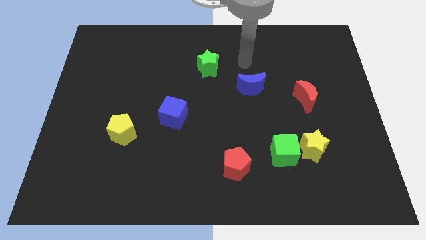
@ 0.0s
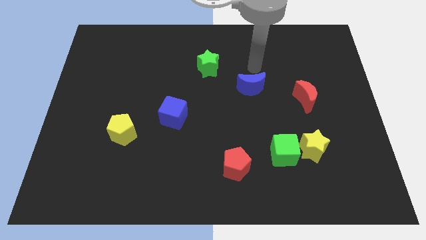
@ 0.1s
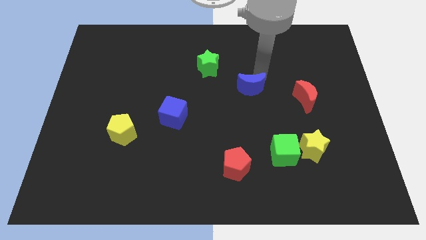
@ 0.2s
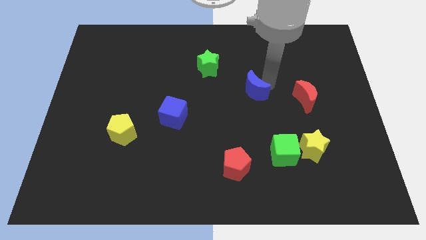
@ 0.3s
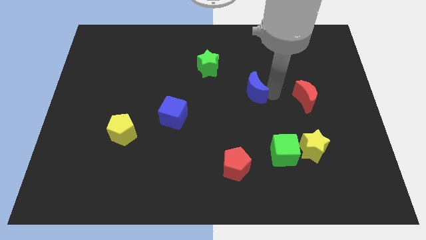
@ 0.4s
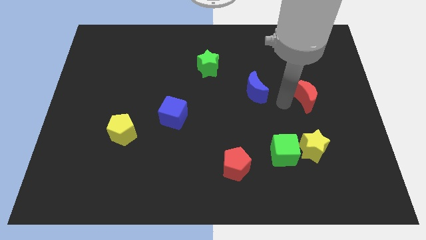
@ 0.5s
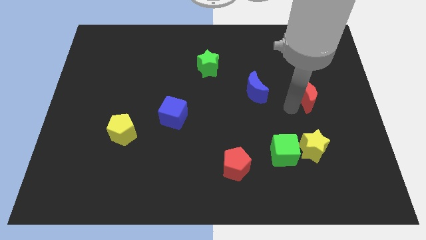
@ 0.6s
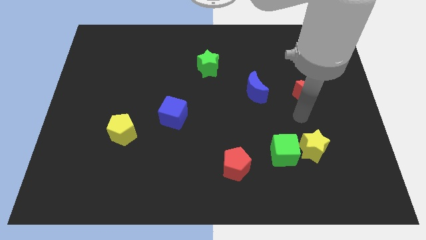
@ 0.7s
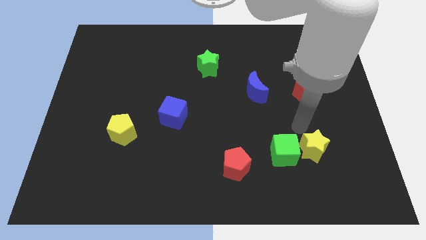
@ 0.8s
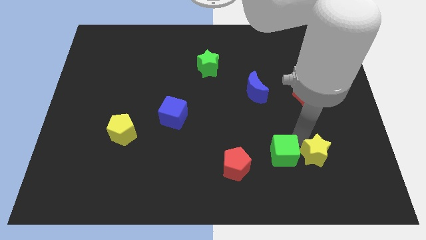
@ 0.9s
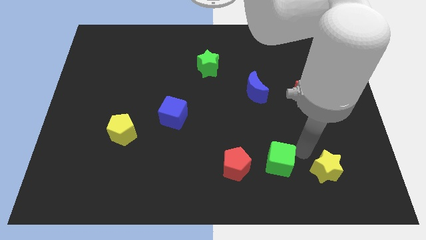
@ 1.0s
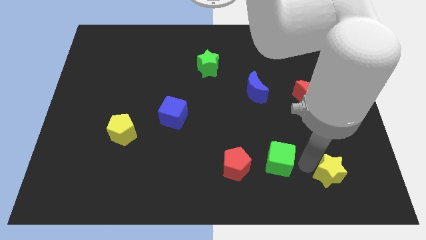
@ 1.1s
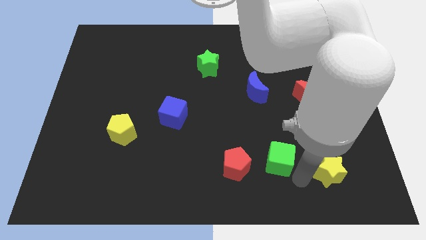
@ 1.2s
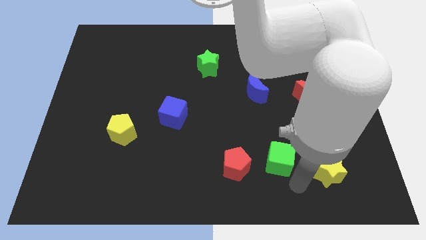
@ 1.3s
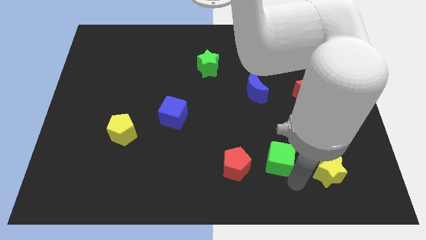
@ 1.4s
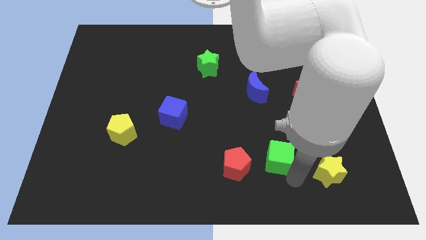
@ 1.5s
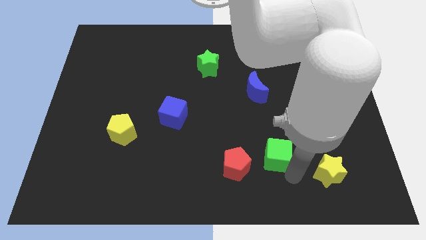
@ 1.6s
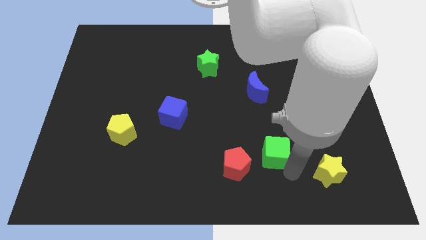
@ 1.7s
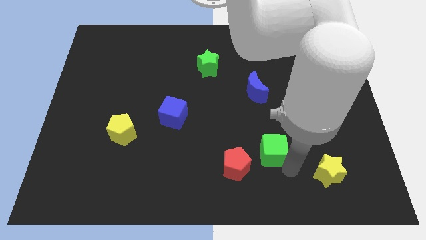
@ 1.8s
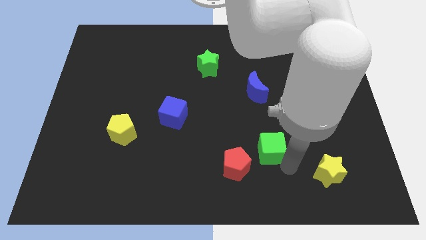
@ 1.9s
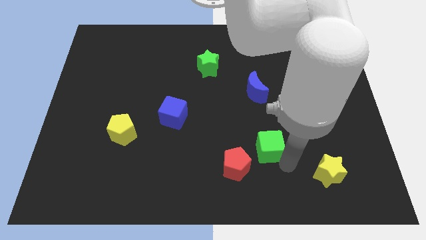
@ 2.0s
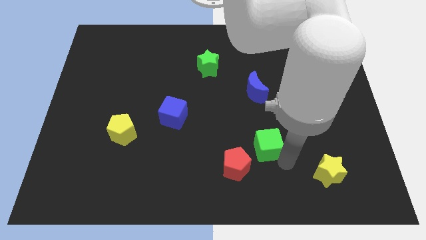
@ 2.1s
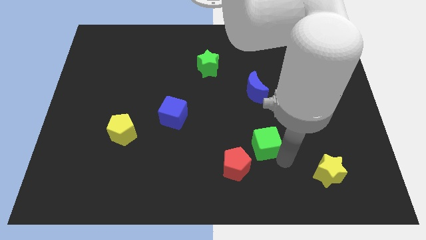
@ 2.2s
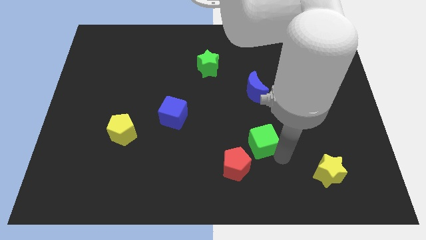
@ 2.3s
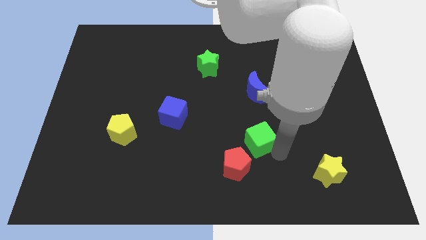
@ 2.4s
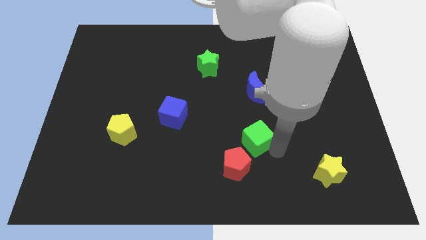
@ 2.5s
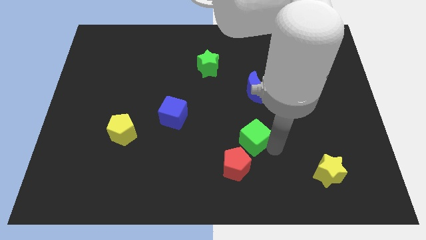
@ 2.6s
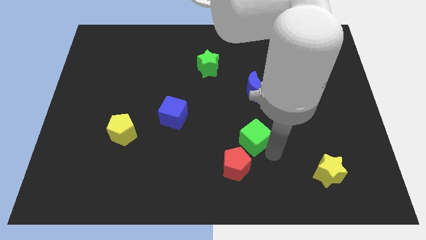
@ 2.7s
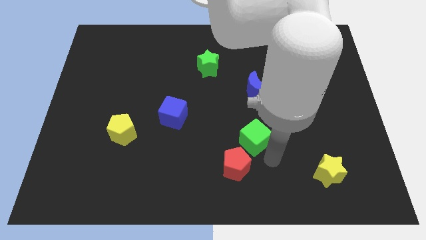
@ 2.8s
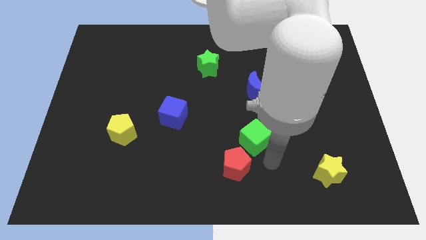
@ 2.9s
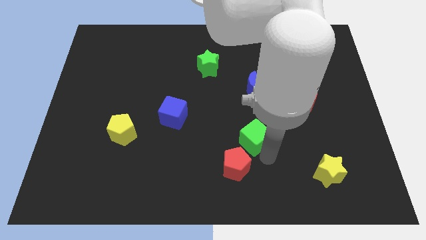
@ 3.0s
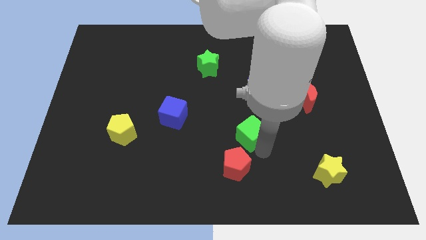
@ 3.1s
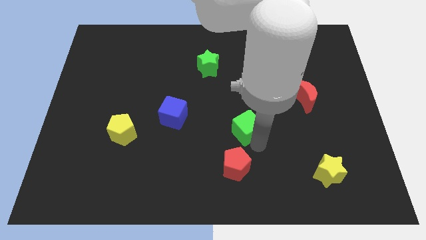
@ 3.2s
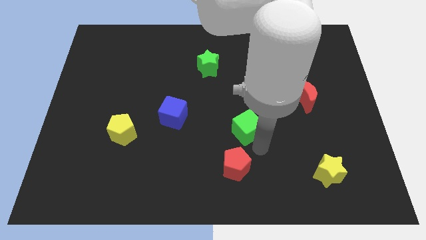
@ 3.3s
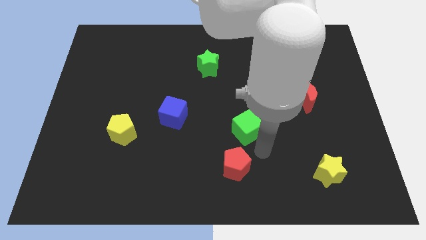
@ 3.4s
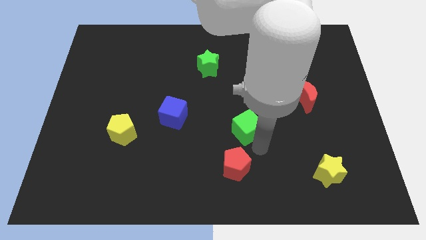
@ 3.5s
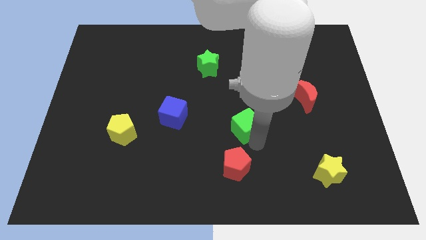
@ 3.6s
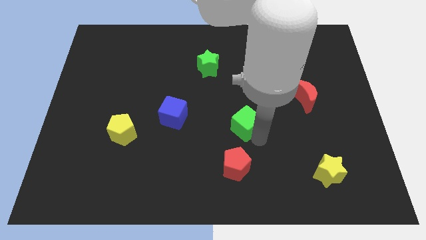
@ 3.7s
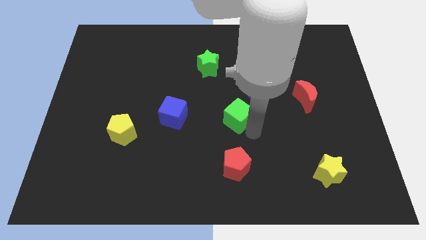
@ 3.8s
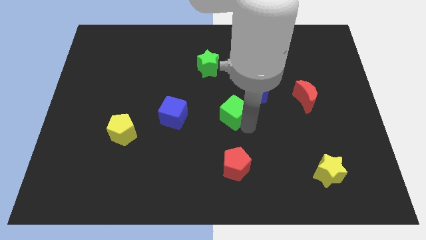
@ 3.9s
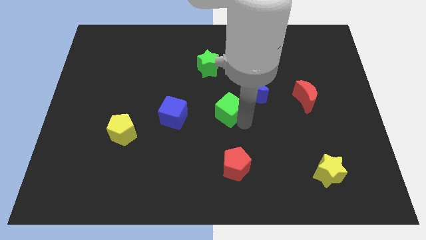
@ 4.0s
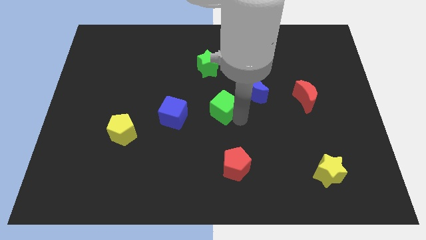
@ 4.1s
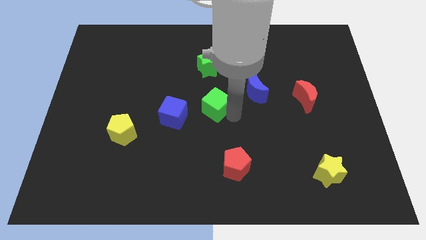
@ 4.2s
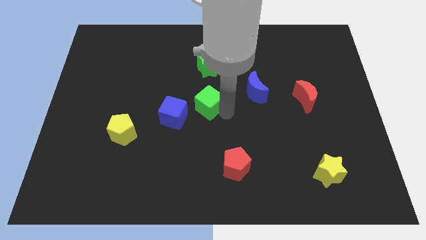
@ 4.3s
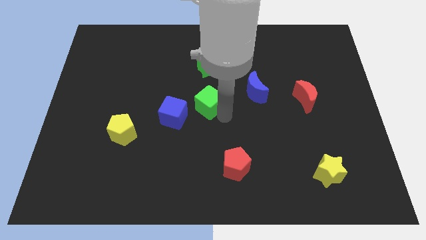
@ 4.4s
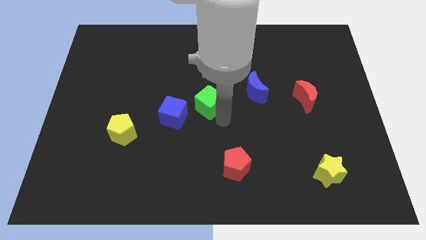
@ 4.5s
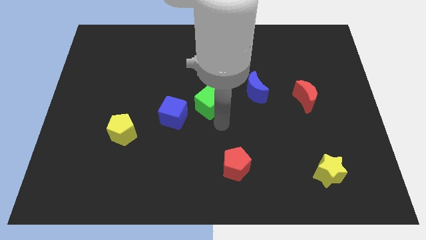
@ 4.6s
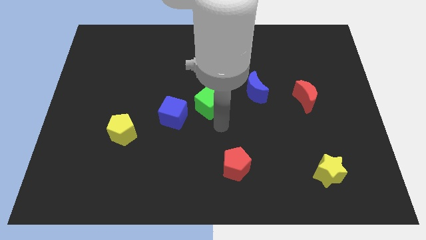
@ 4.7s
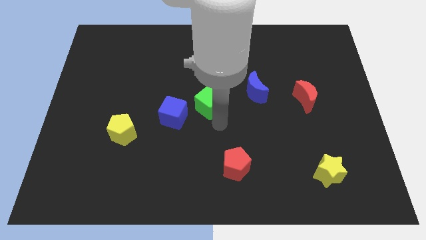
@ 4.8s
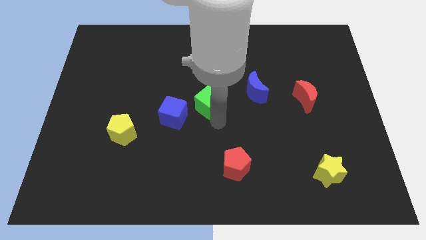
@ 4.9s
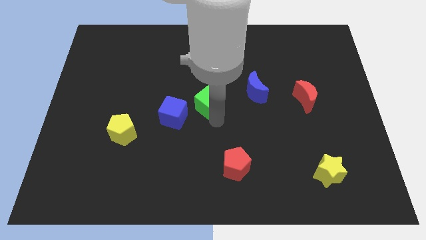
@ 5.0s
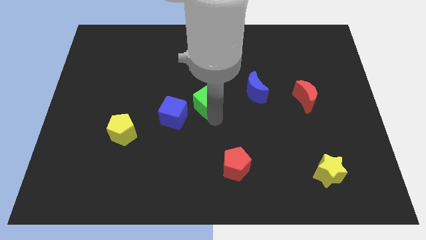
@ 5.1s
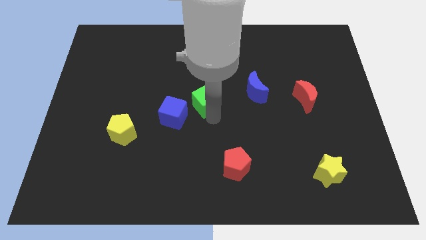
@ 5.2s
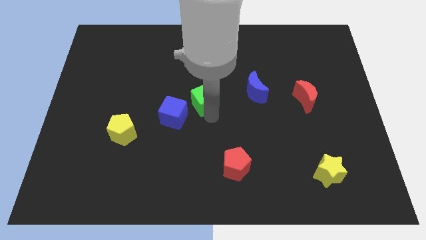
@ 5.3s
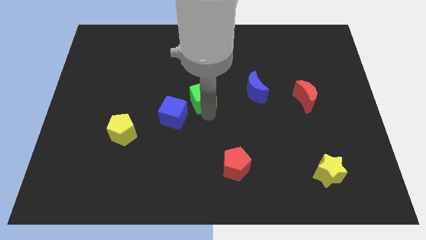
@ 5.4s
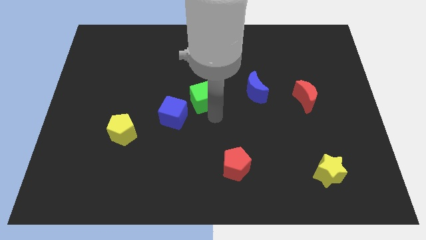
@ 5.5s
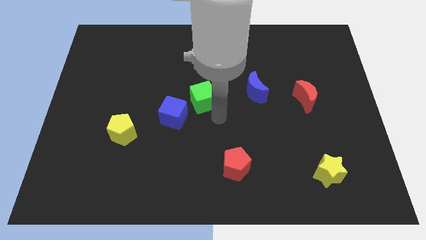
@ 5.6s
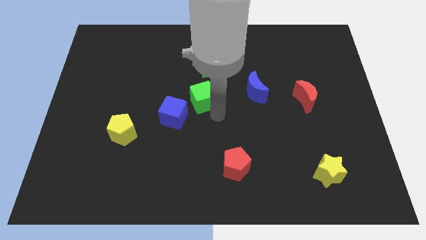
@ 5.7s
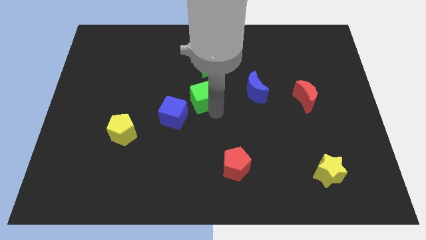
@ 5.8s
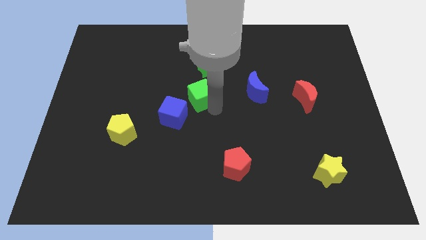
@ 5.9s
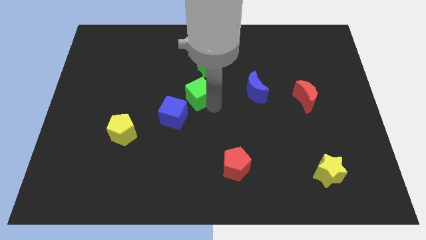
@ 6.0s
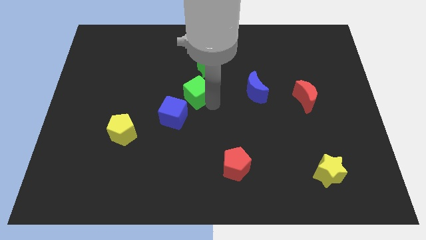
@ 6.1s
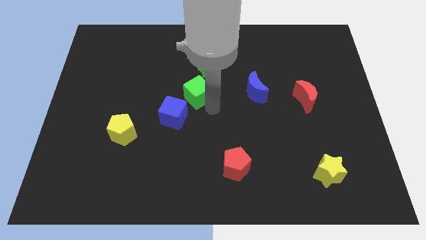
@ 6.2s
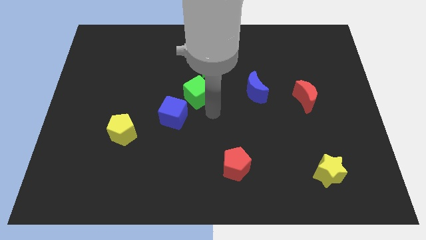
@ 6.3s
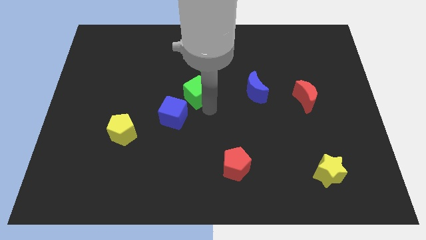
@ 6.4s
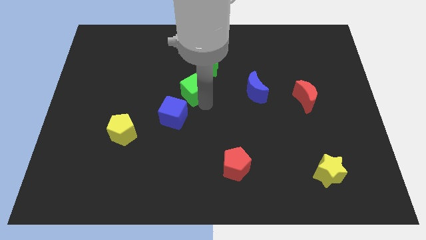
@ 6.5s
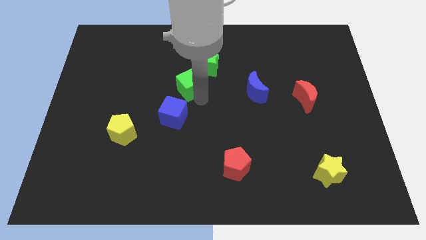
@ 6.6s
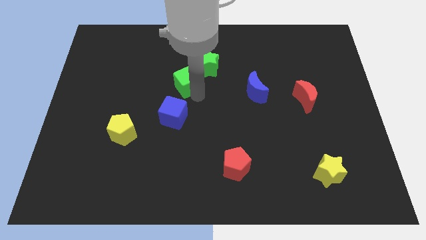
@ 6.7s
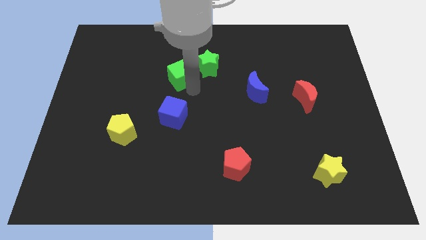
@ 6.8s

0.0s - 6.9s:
slide the green cube just left of the green star

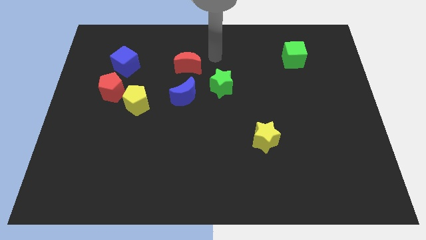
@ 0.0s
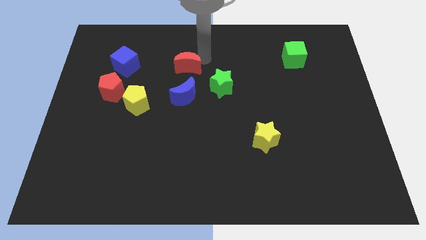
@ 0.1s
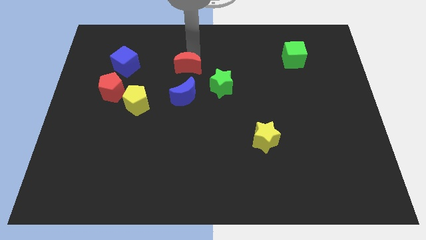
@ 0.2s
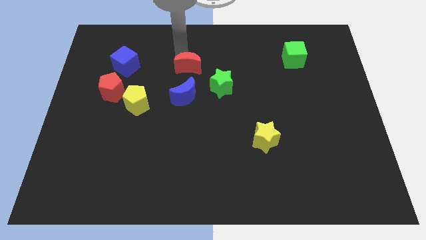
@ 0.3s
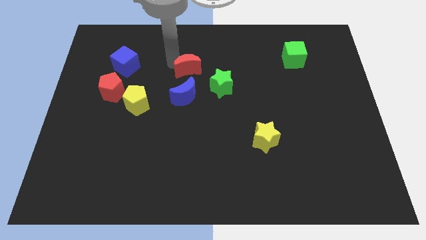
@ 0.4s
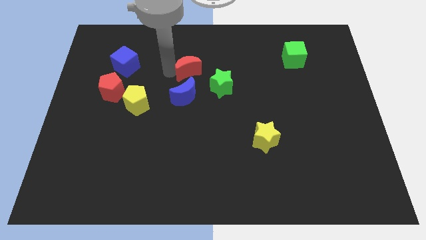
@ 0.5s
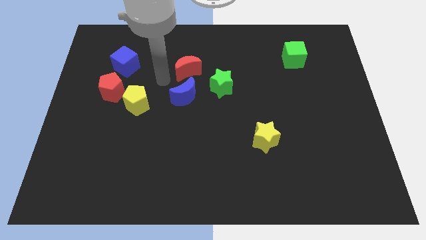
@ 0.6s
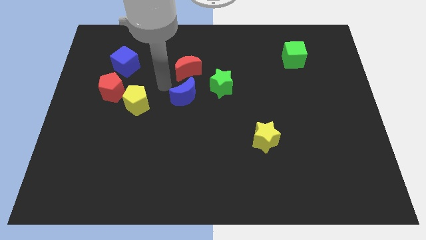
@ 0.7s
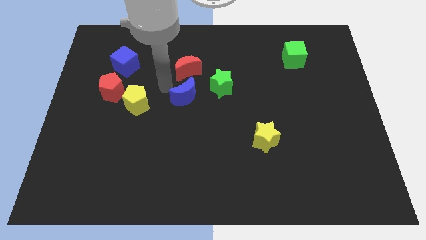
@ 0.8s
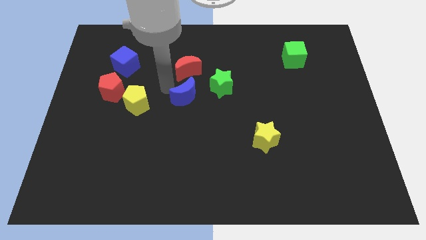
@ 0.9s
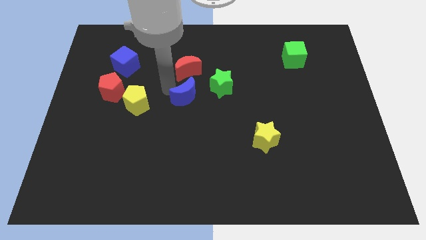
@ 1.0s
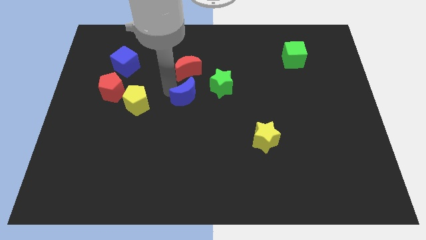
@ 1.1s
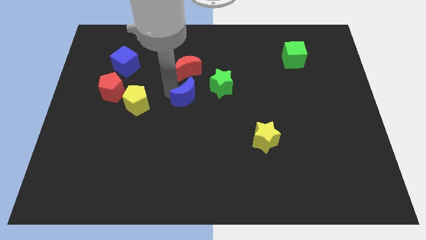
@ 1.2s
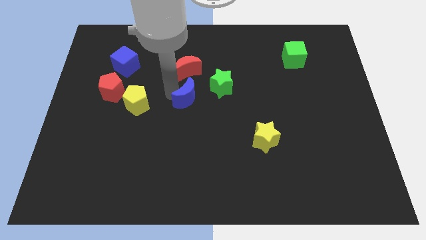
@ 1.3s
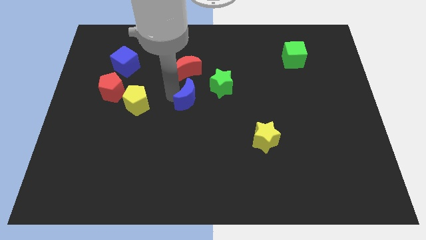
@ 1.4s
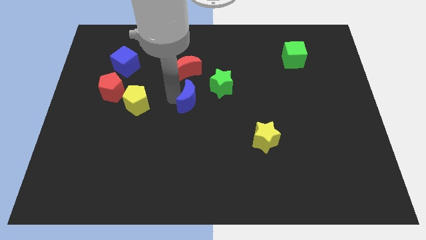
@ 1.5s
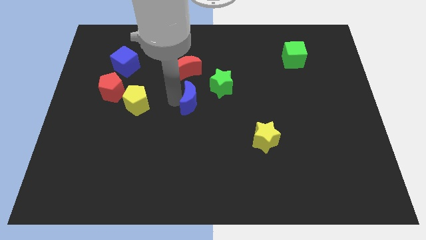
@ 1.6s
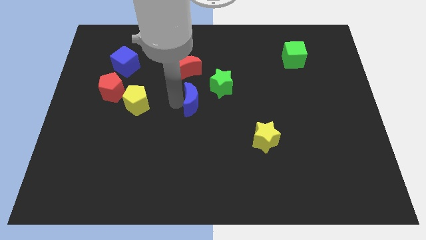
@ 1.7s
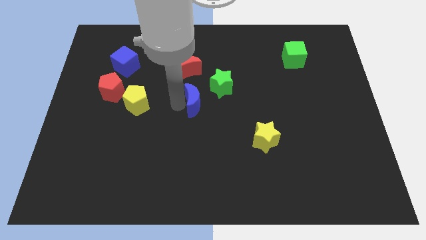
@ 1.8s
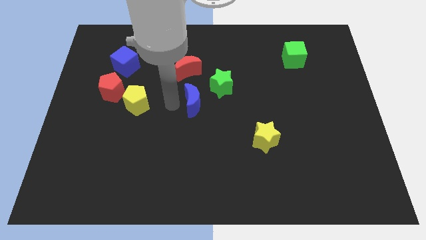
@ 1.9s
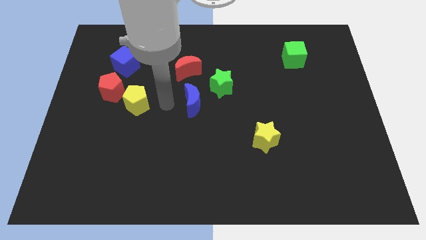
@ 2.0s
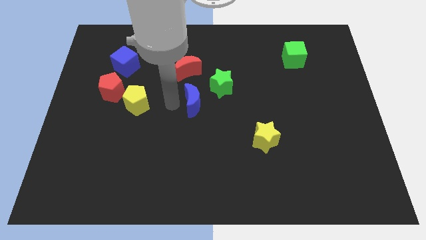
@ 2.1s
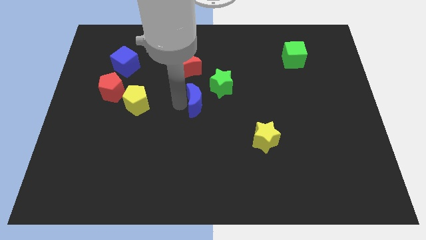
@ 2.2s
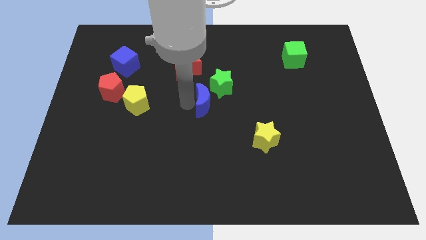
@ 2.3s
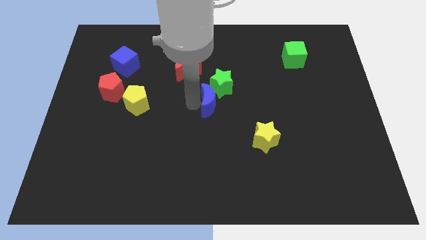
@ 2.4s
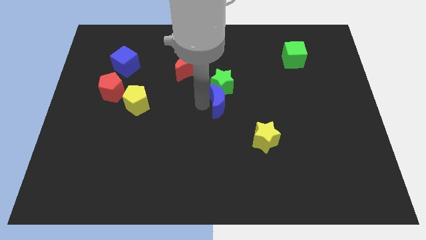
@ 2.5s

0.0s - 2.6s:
slide the blue moon to the bottom right side of the green star
